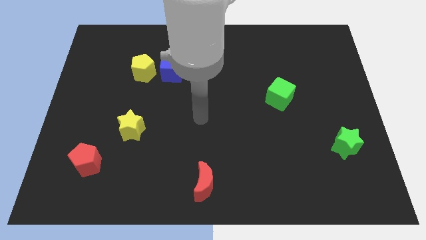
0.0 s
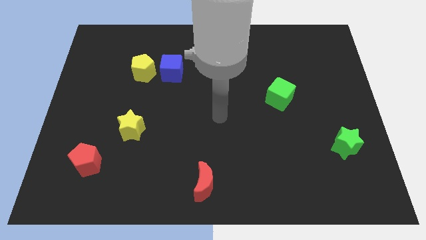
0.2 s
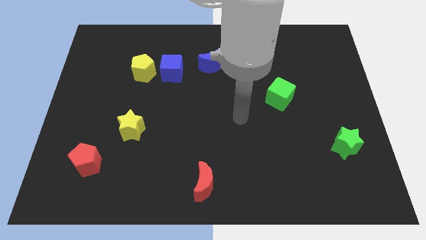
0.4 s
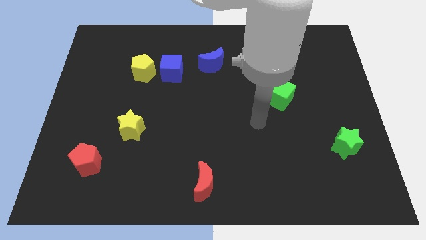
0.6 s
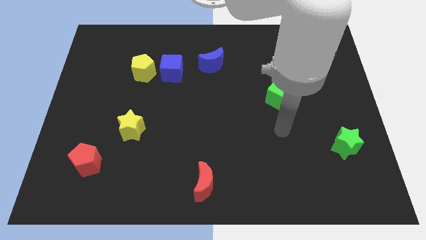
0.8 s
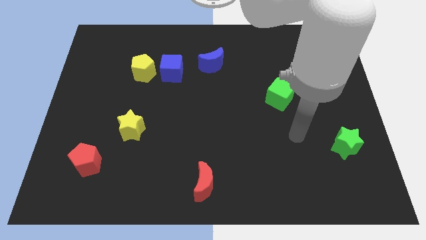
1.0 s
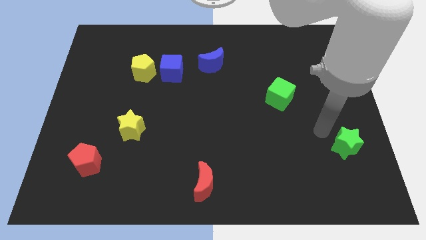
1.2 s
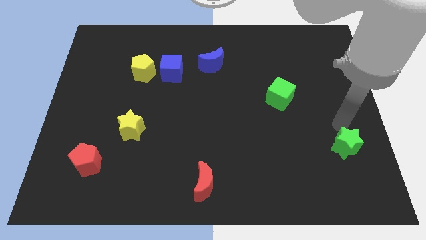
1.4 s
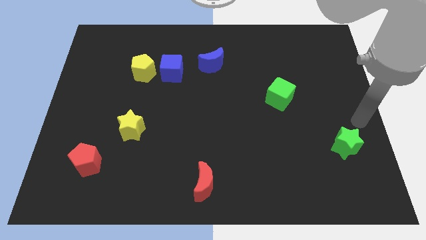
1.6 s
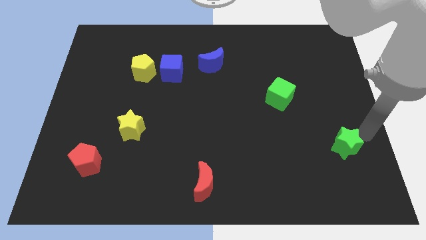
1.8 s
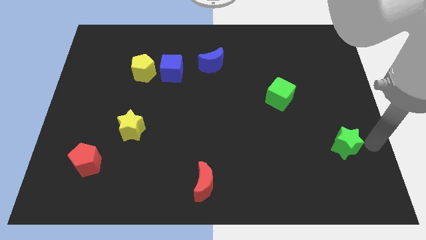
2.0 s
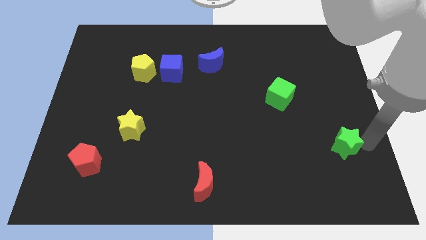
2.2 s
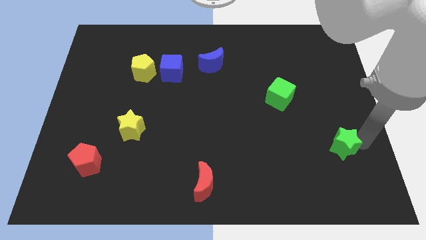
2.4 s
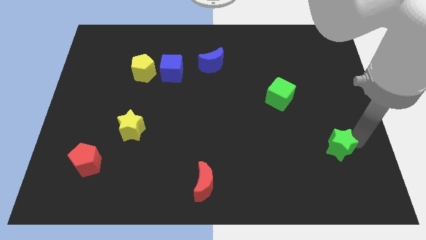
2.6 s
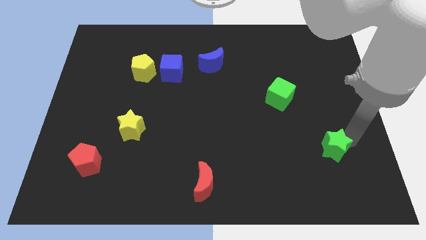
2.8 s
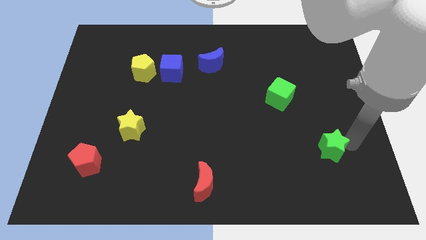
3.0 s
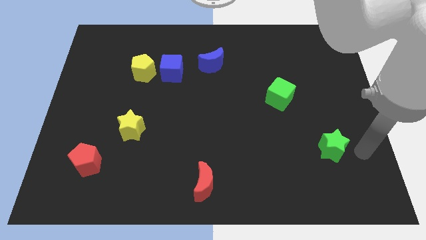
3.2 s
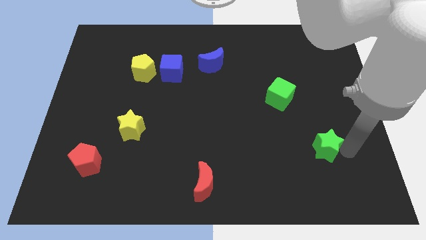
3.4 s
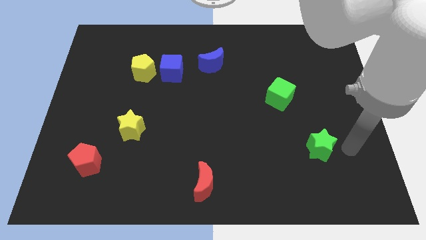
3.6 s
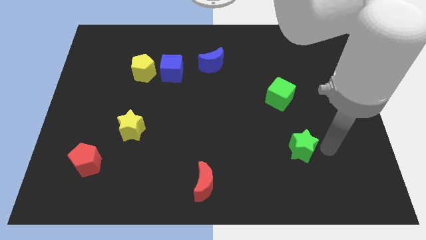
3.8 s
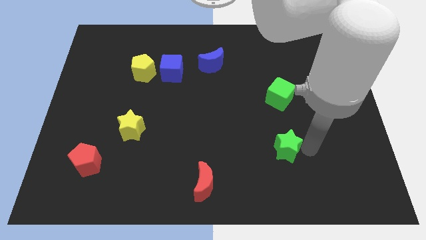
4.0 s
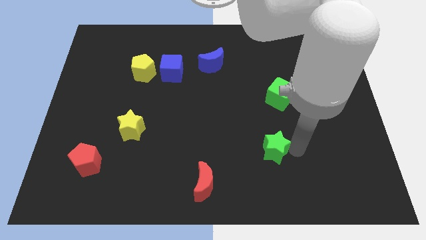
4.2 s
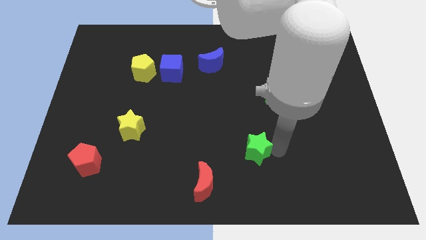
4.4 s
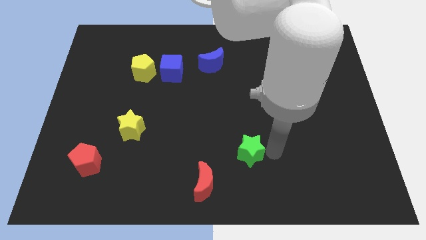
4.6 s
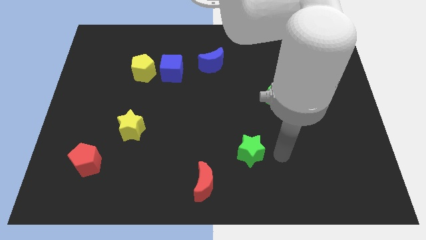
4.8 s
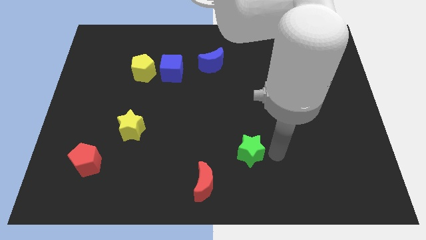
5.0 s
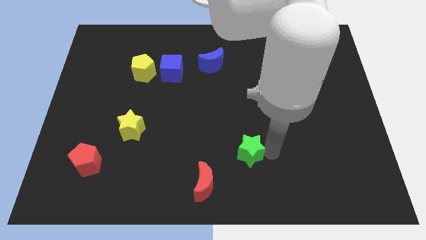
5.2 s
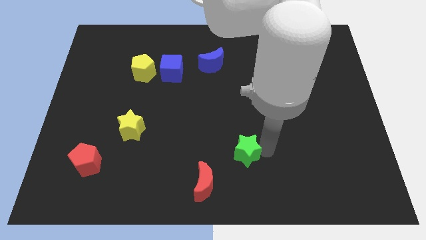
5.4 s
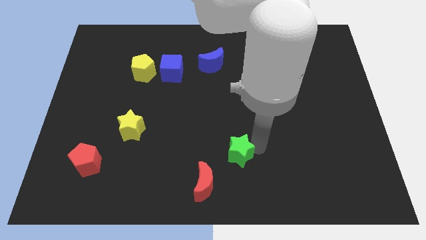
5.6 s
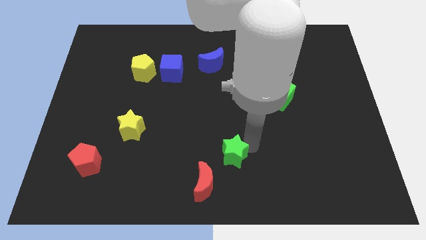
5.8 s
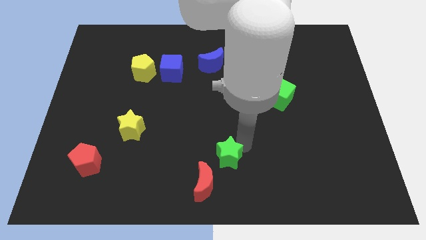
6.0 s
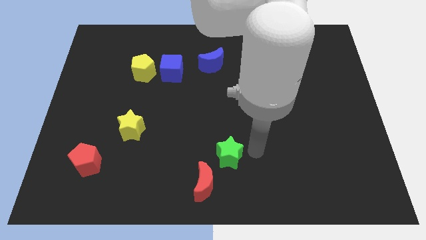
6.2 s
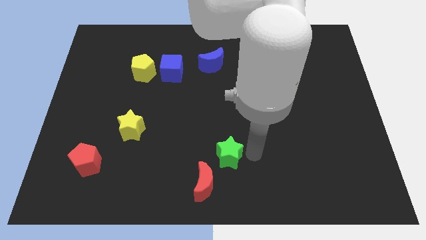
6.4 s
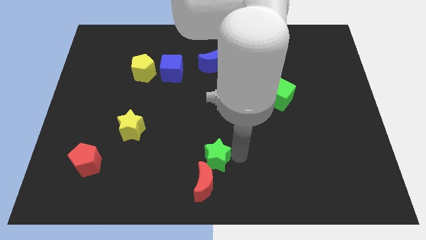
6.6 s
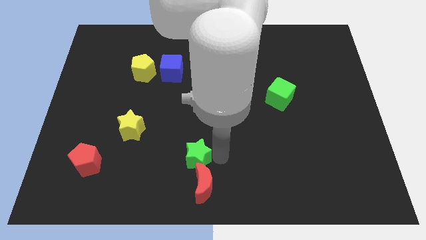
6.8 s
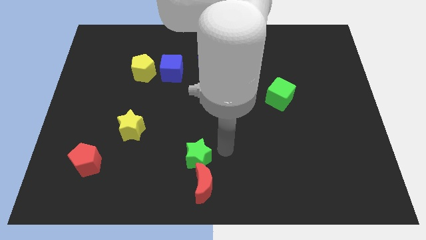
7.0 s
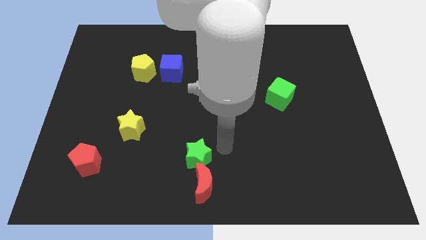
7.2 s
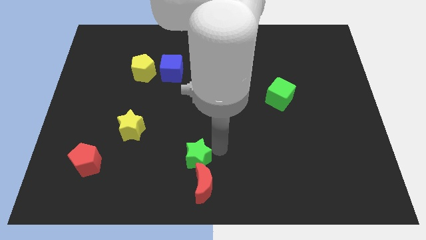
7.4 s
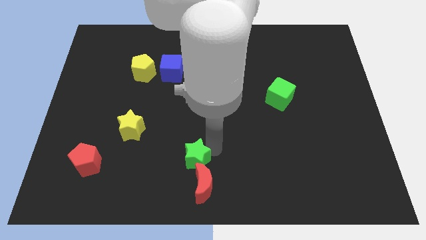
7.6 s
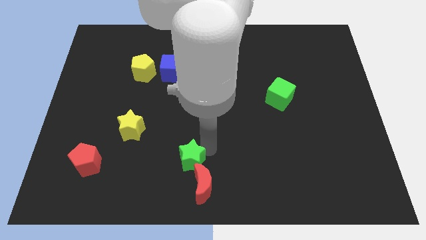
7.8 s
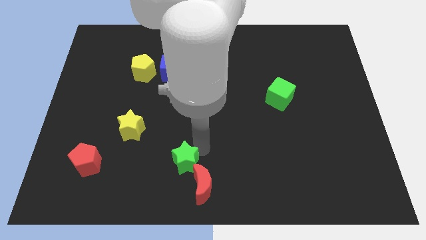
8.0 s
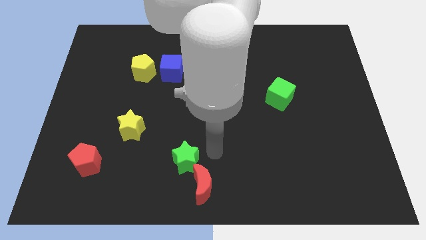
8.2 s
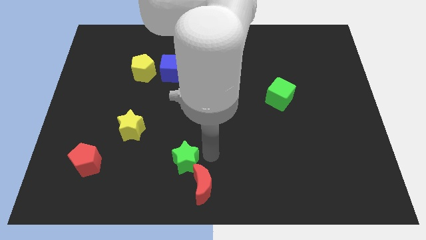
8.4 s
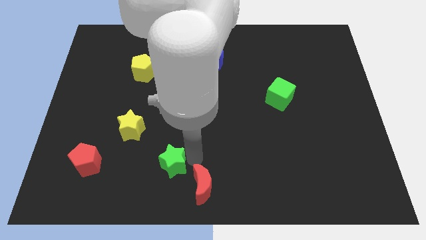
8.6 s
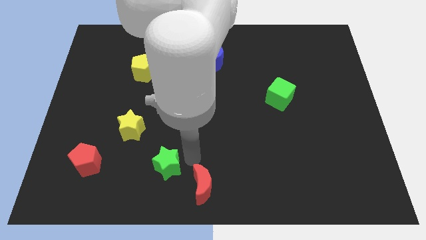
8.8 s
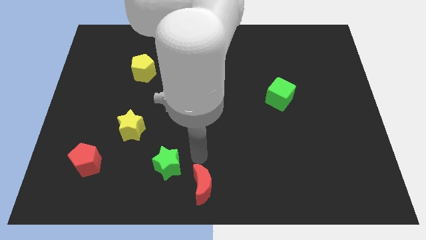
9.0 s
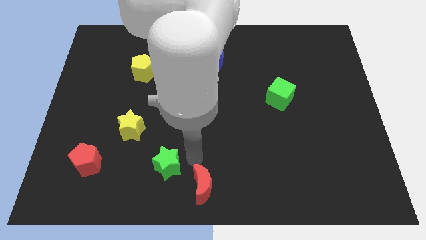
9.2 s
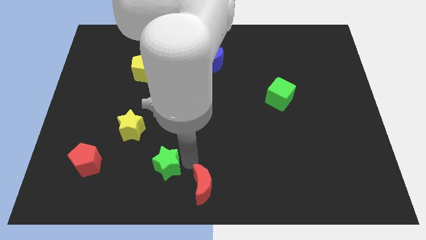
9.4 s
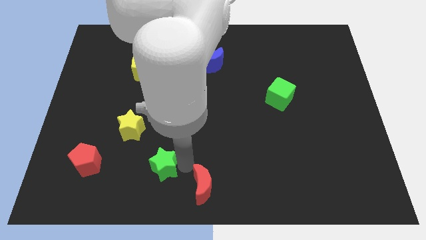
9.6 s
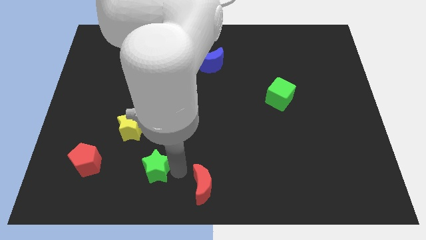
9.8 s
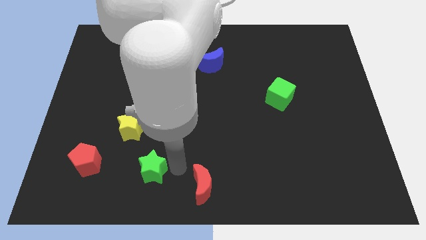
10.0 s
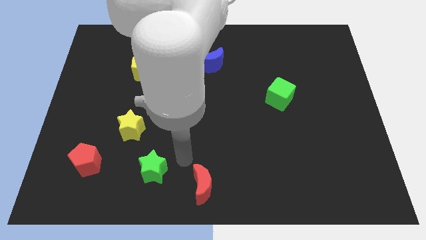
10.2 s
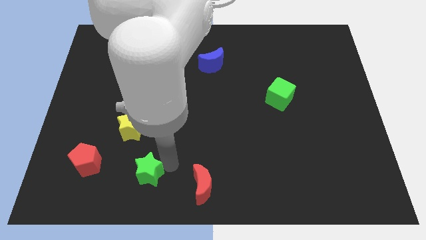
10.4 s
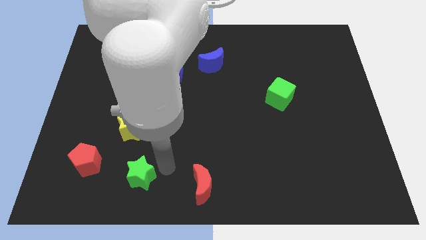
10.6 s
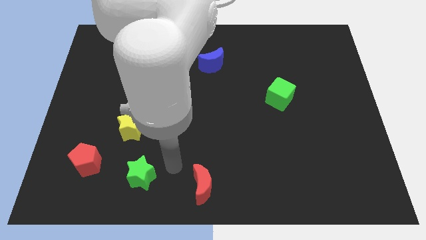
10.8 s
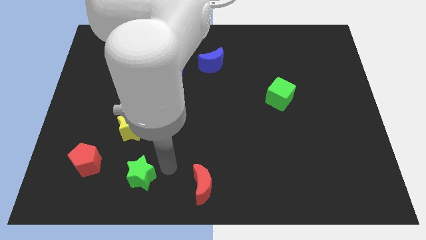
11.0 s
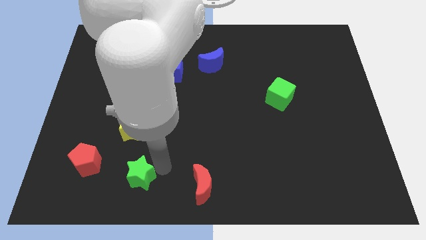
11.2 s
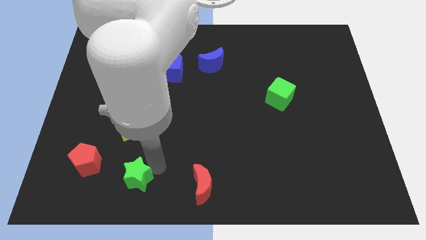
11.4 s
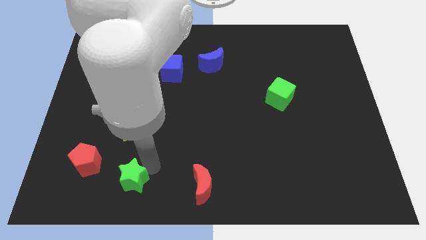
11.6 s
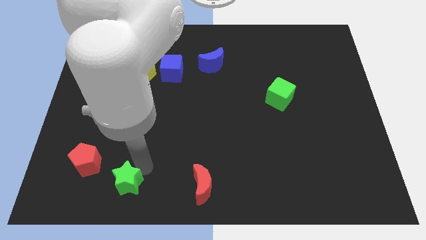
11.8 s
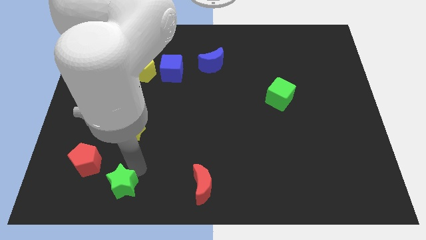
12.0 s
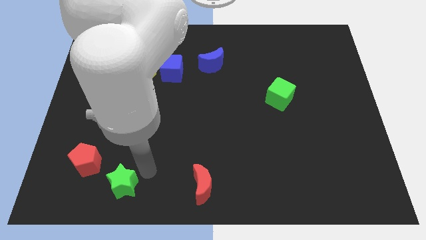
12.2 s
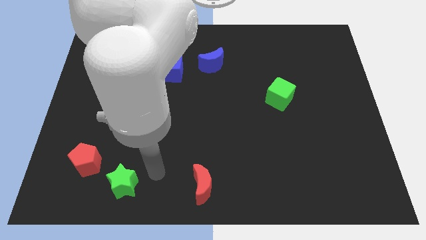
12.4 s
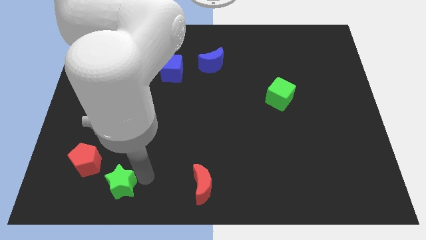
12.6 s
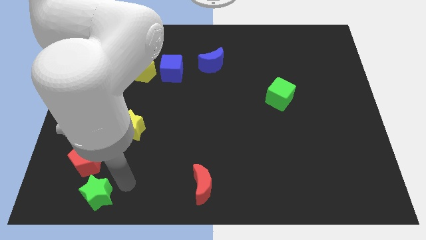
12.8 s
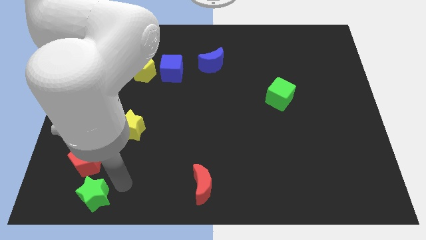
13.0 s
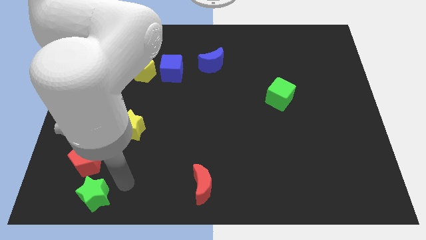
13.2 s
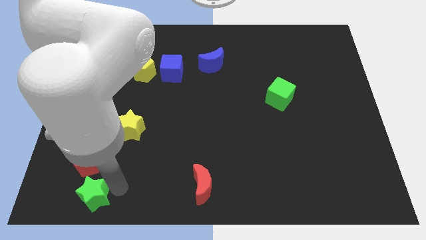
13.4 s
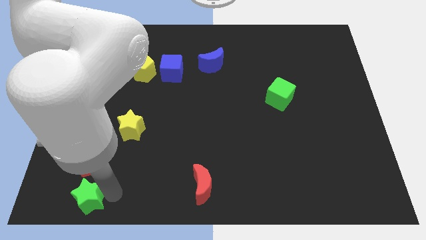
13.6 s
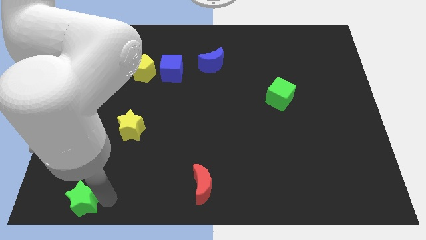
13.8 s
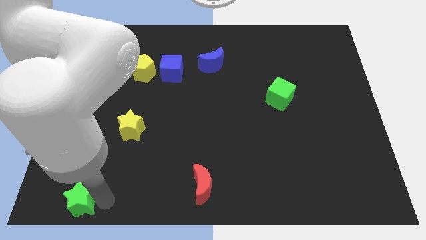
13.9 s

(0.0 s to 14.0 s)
push the green star to the bottom left corner
